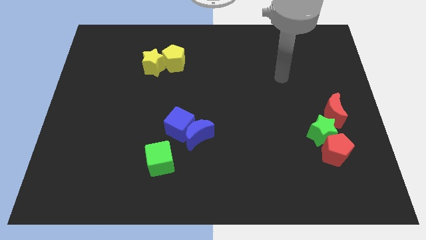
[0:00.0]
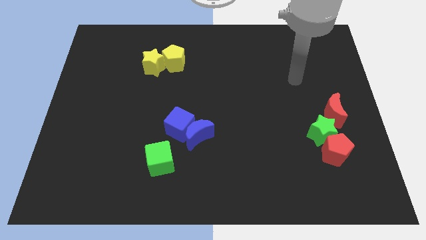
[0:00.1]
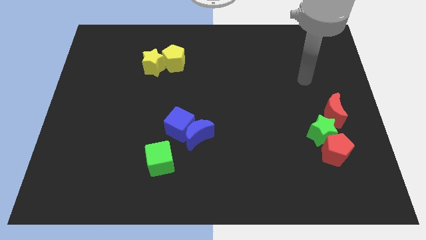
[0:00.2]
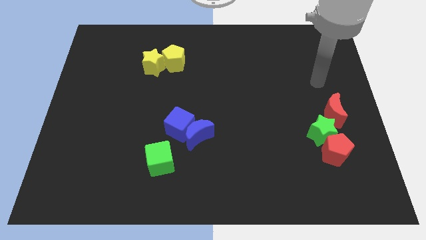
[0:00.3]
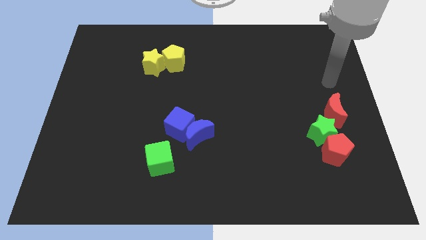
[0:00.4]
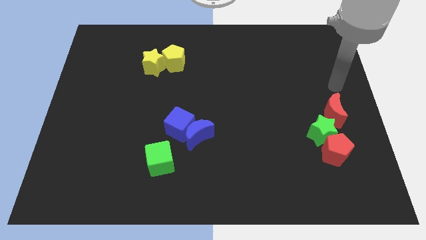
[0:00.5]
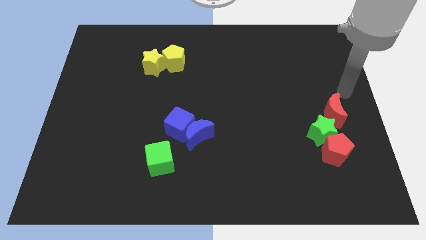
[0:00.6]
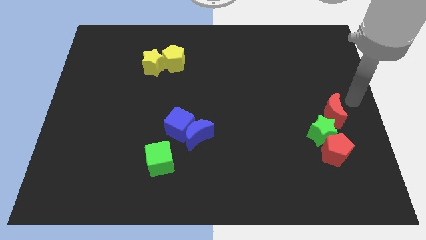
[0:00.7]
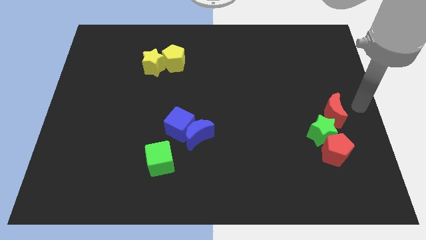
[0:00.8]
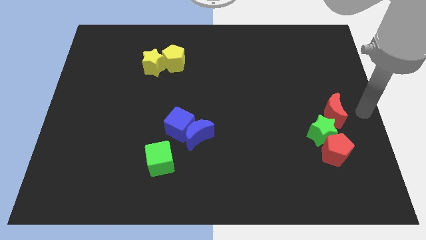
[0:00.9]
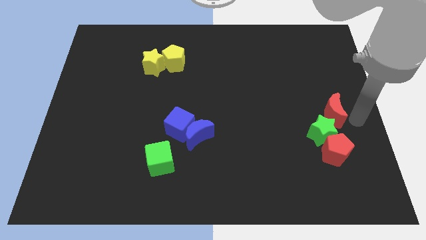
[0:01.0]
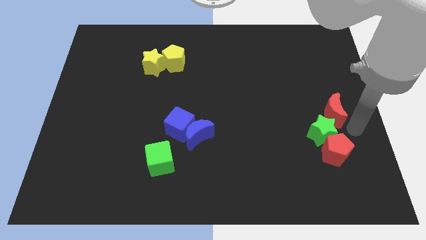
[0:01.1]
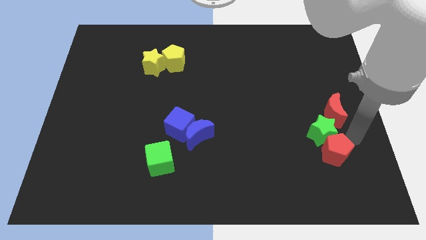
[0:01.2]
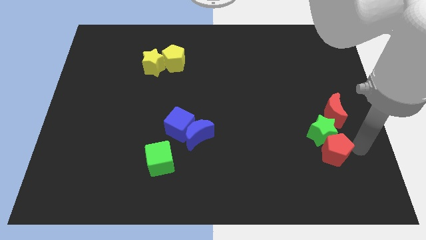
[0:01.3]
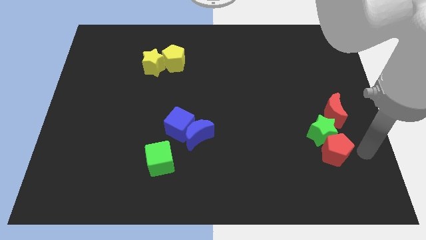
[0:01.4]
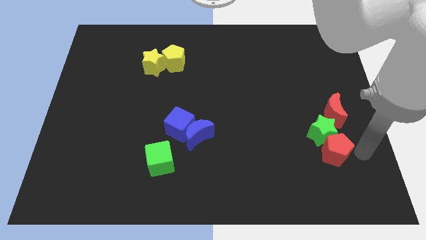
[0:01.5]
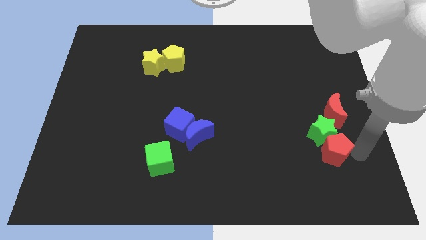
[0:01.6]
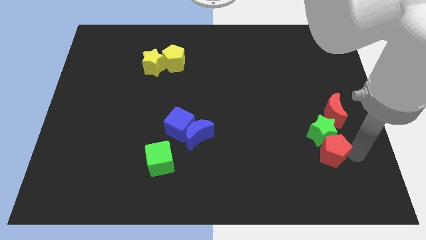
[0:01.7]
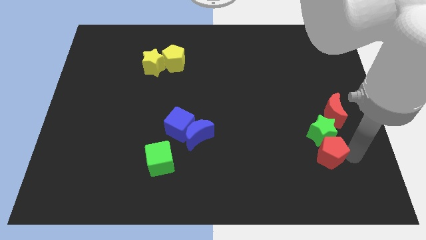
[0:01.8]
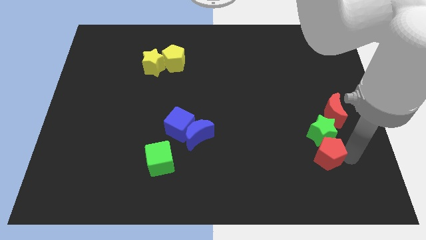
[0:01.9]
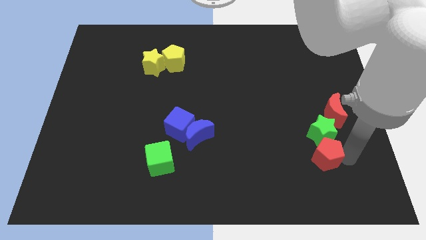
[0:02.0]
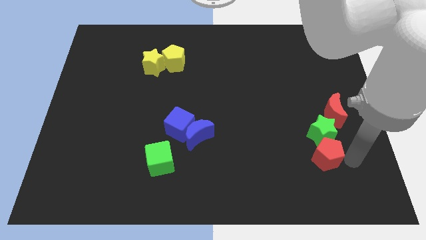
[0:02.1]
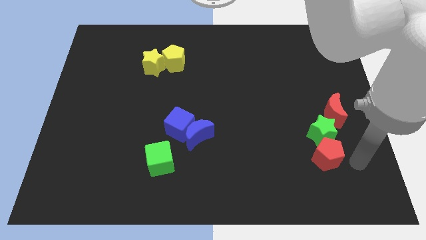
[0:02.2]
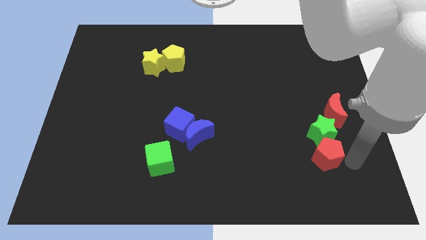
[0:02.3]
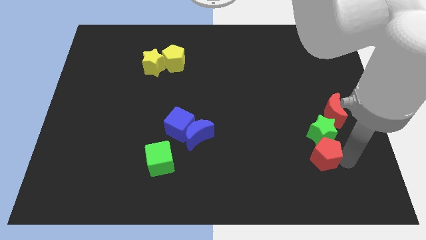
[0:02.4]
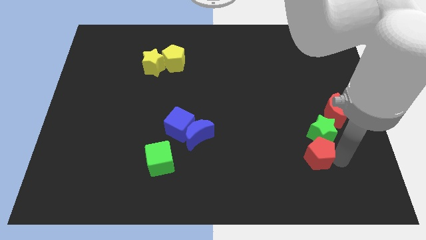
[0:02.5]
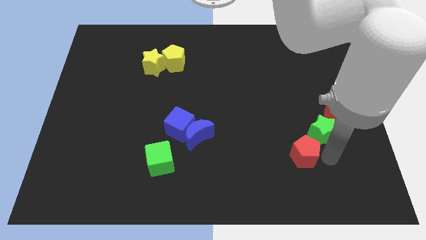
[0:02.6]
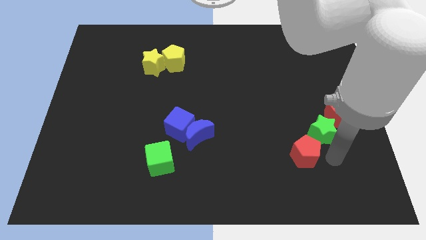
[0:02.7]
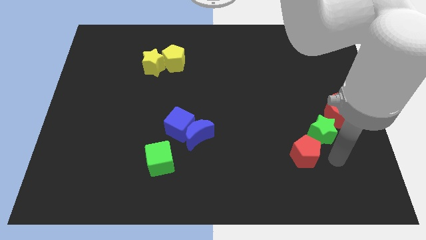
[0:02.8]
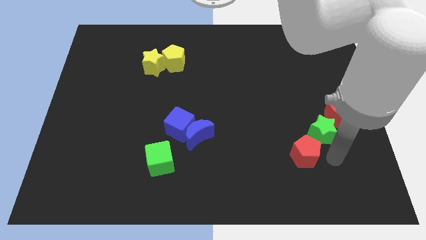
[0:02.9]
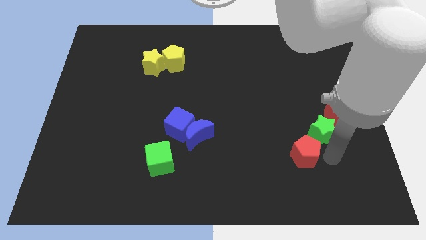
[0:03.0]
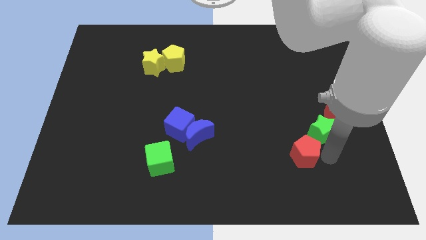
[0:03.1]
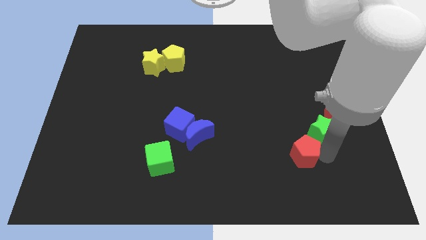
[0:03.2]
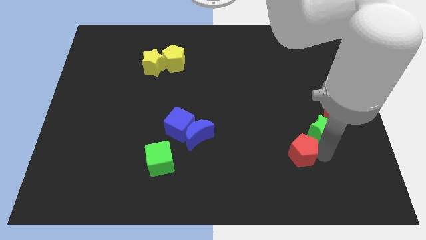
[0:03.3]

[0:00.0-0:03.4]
slide the red pentagon slightly left

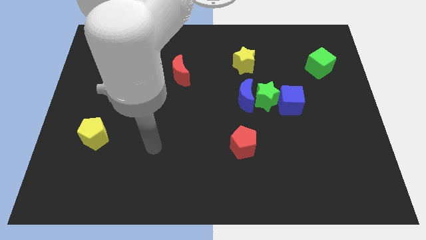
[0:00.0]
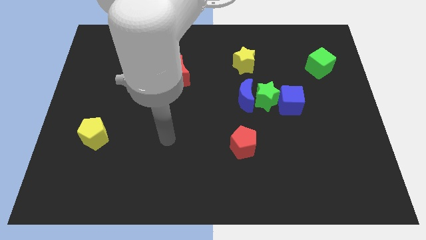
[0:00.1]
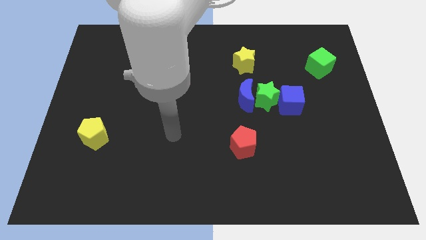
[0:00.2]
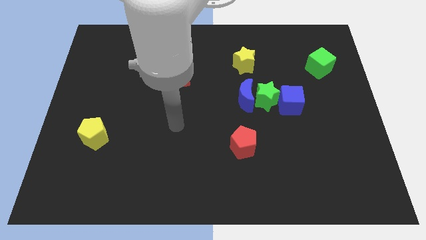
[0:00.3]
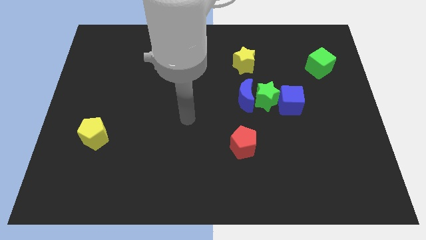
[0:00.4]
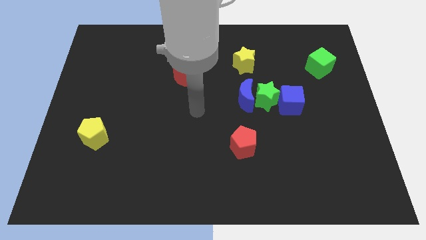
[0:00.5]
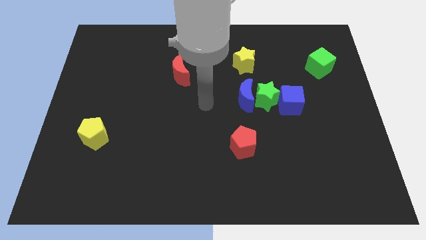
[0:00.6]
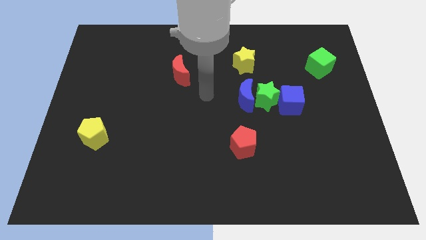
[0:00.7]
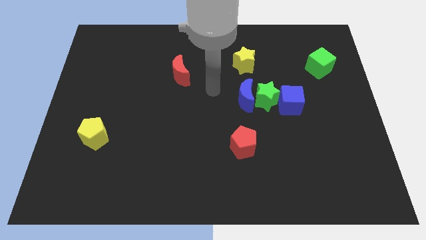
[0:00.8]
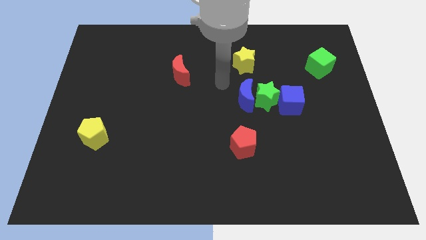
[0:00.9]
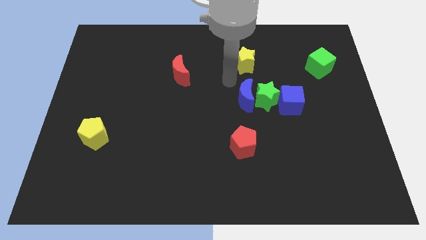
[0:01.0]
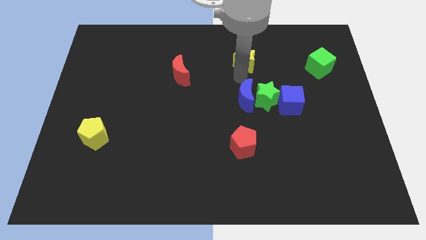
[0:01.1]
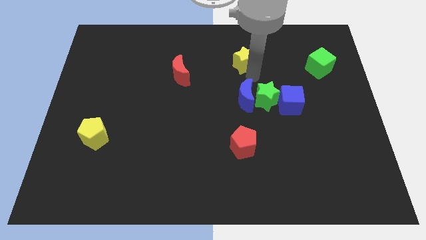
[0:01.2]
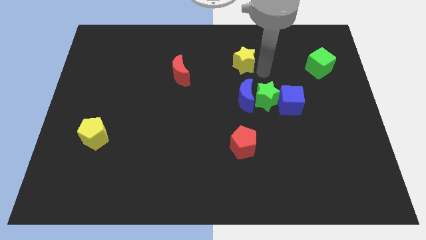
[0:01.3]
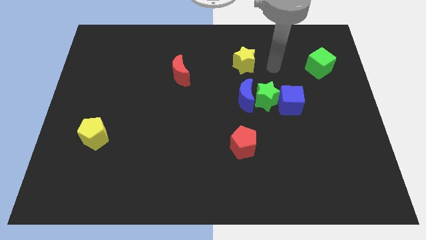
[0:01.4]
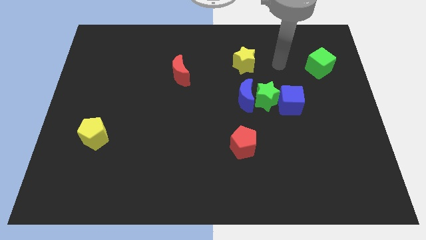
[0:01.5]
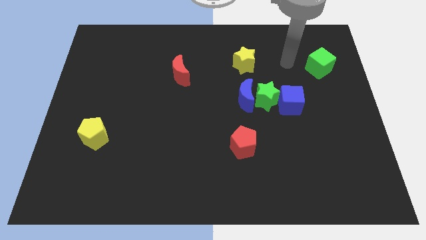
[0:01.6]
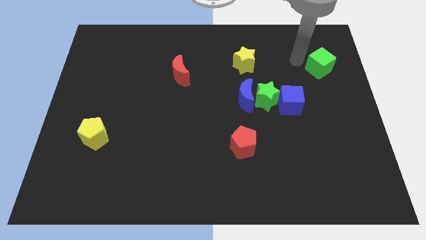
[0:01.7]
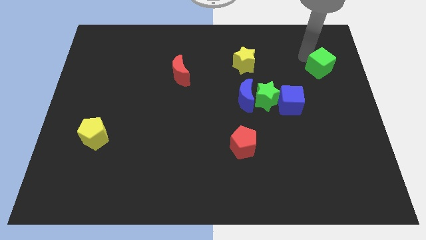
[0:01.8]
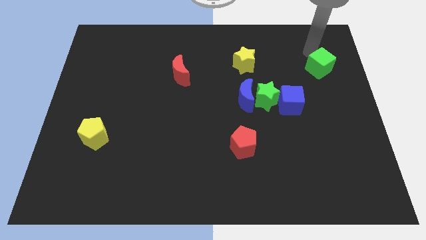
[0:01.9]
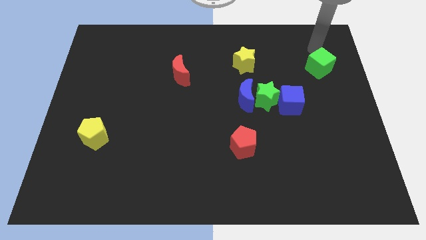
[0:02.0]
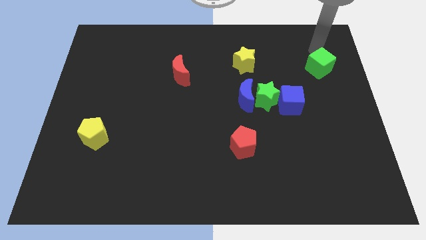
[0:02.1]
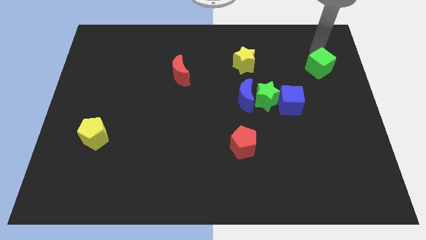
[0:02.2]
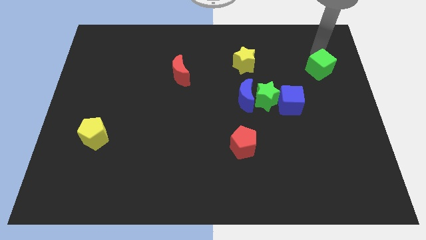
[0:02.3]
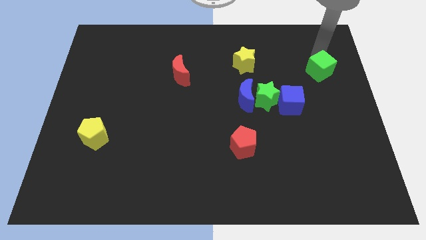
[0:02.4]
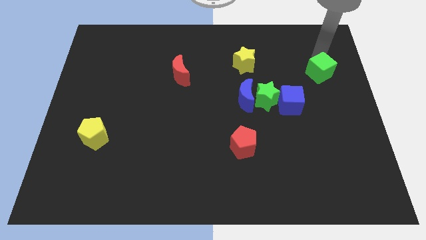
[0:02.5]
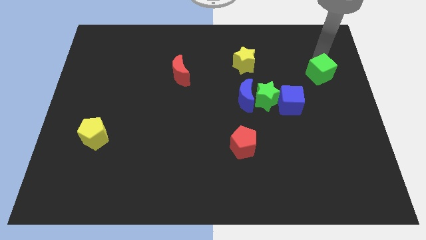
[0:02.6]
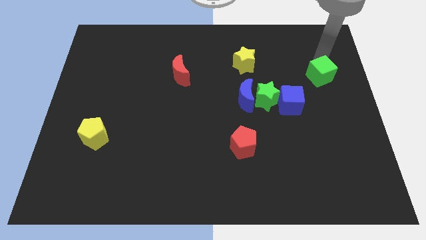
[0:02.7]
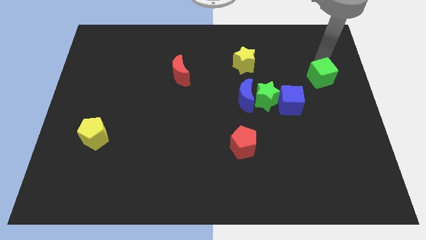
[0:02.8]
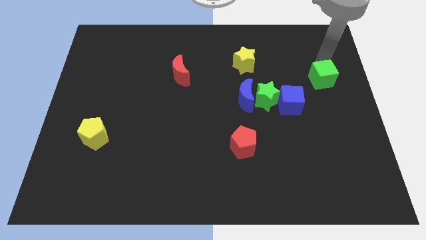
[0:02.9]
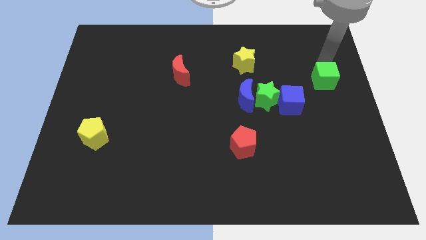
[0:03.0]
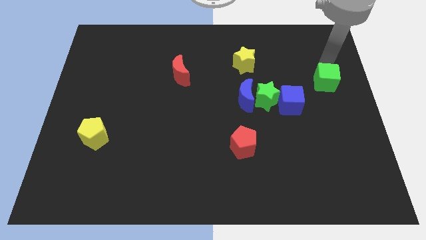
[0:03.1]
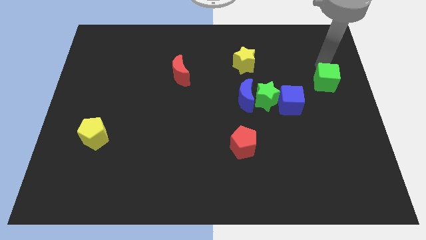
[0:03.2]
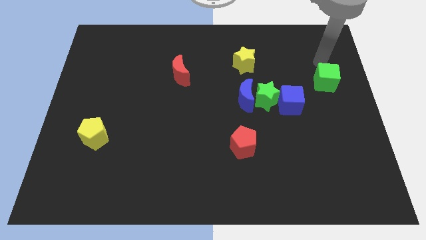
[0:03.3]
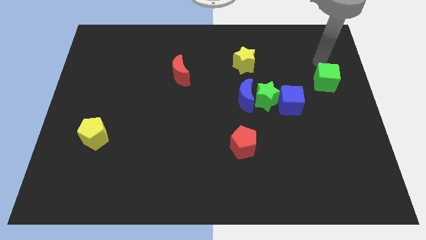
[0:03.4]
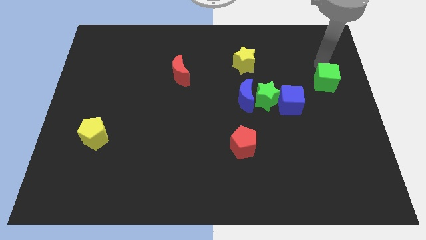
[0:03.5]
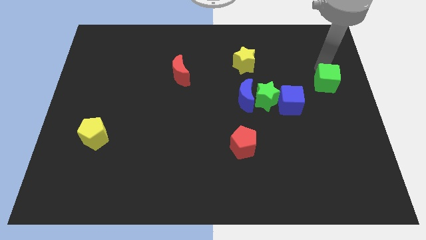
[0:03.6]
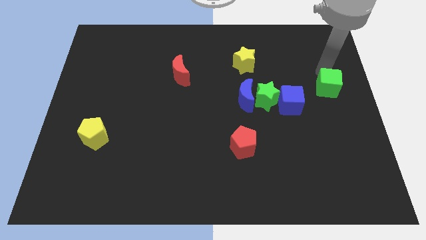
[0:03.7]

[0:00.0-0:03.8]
slide the green cube somewhat downwards

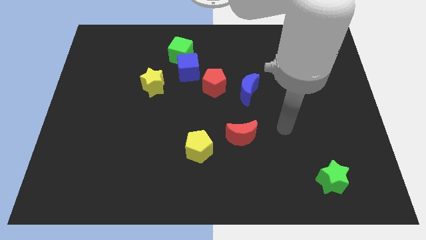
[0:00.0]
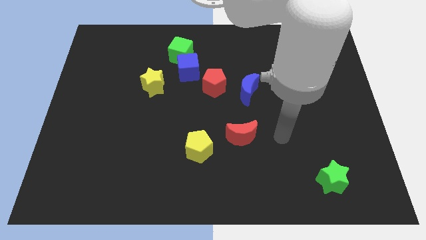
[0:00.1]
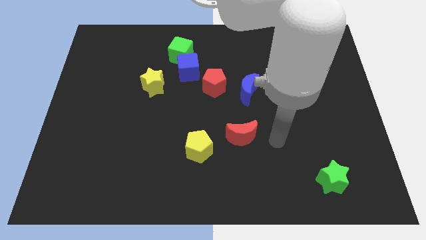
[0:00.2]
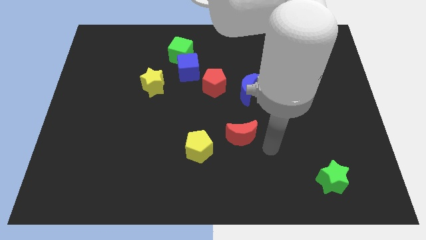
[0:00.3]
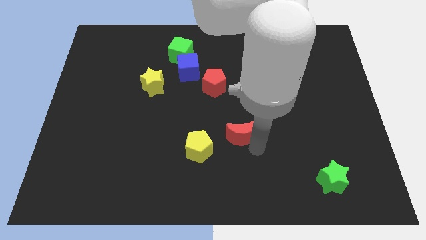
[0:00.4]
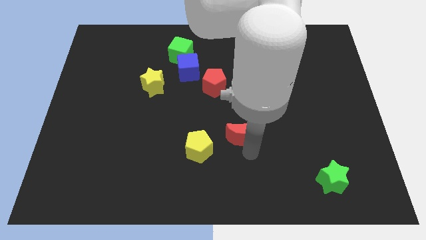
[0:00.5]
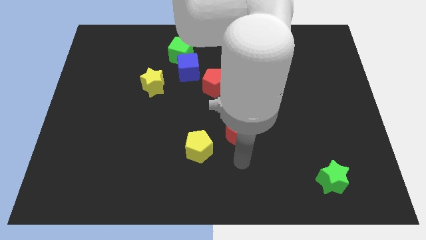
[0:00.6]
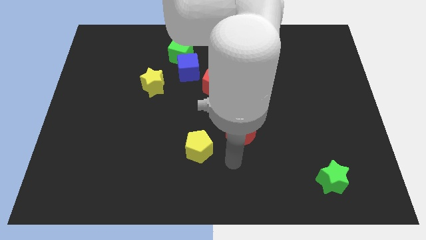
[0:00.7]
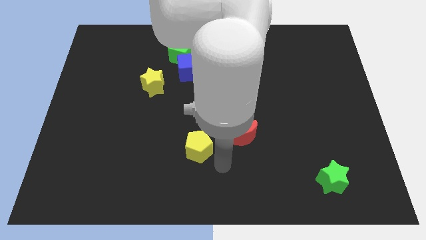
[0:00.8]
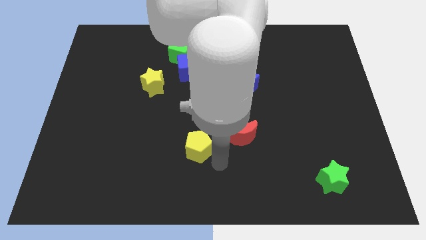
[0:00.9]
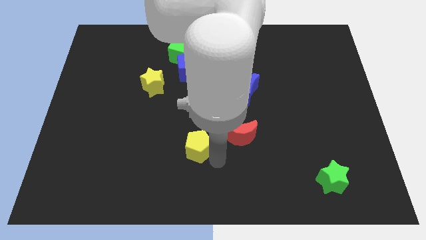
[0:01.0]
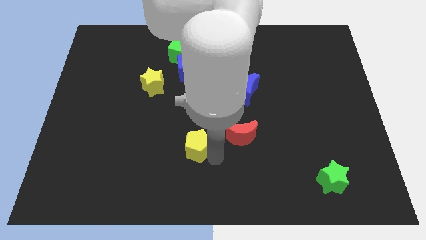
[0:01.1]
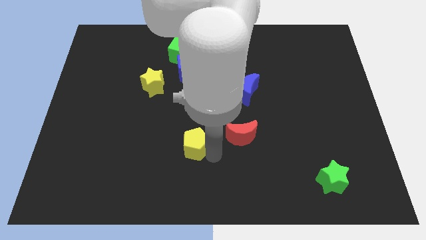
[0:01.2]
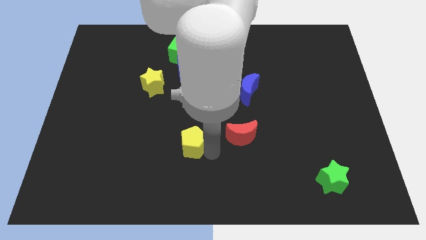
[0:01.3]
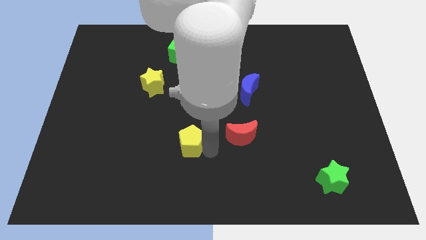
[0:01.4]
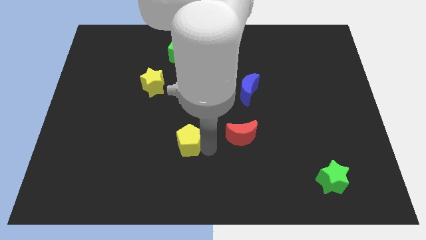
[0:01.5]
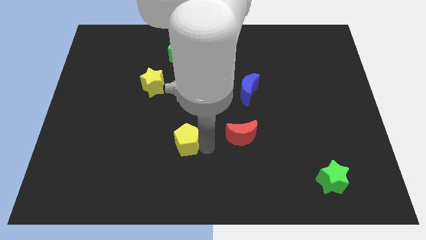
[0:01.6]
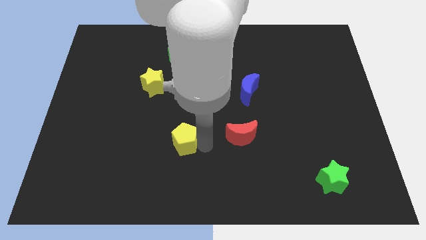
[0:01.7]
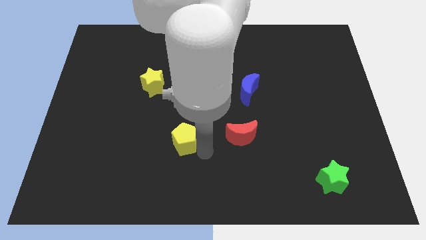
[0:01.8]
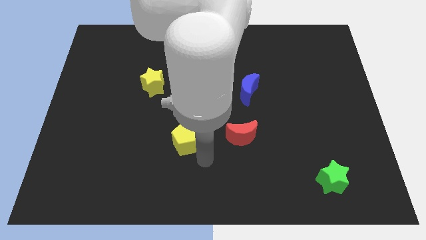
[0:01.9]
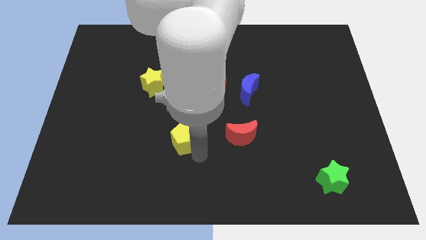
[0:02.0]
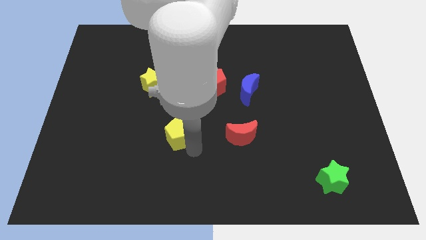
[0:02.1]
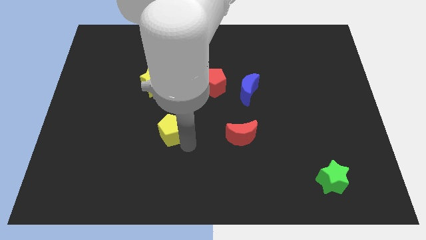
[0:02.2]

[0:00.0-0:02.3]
slightly push the yellow pentagon diagonally up and to the left
